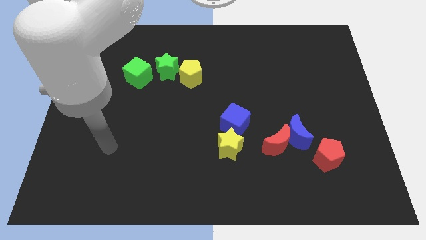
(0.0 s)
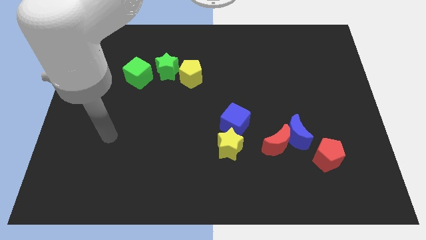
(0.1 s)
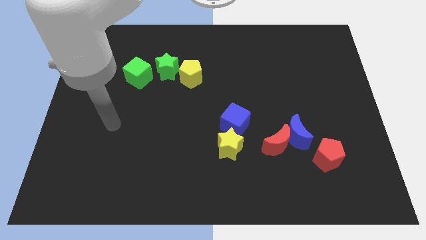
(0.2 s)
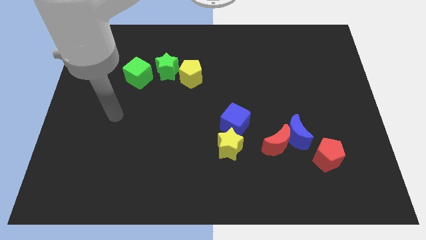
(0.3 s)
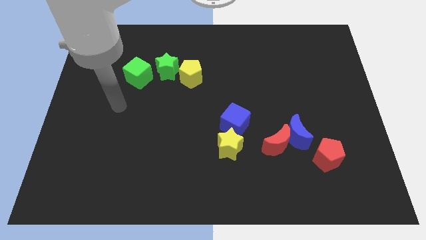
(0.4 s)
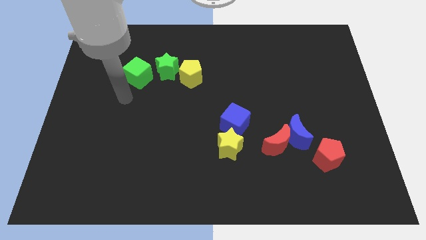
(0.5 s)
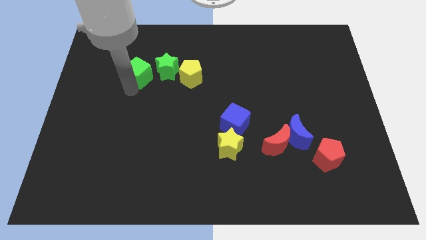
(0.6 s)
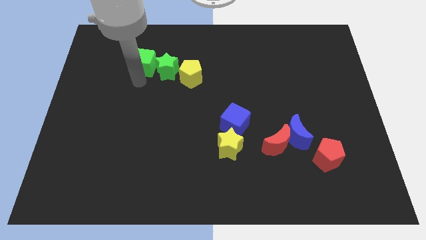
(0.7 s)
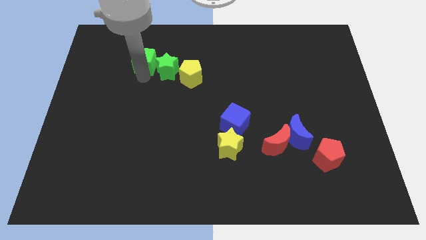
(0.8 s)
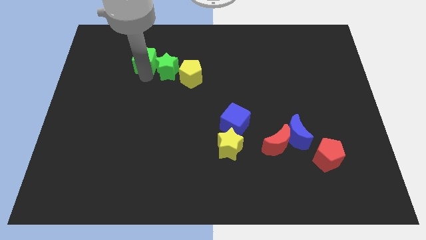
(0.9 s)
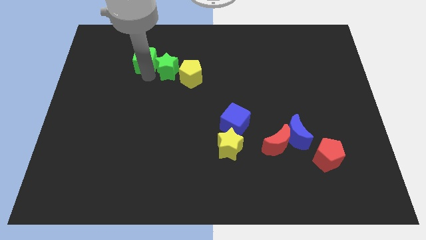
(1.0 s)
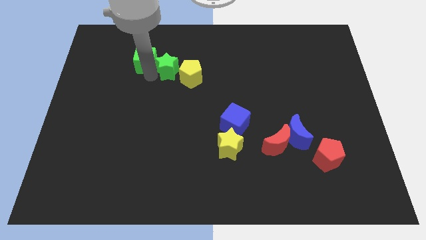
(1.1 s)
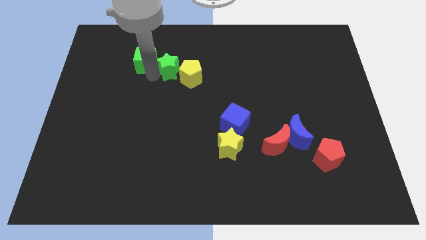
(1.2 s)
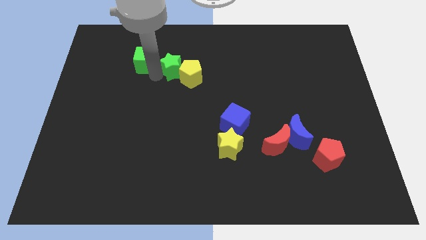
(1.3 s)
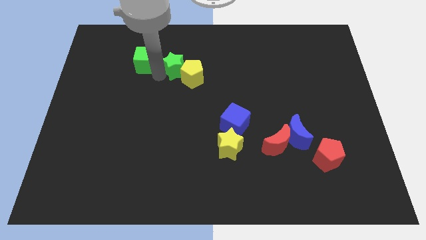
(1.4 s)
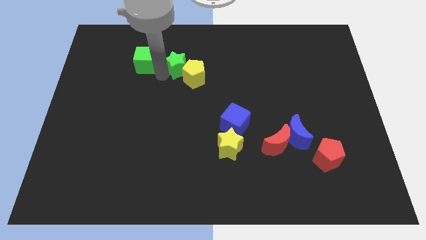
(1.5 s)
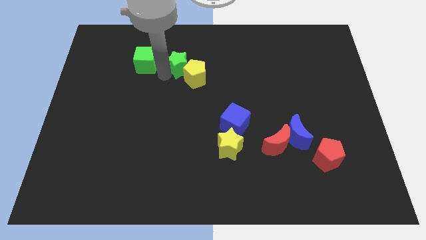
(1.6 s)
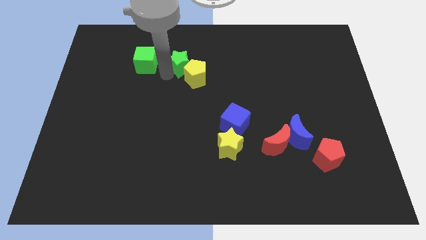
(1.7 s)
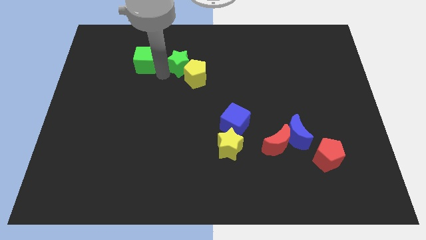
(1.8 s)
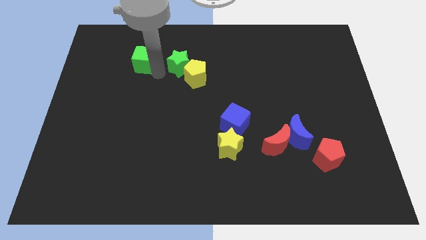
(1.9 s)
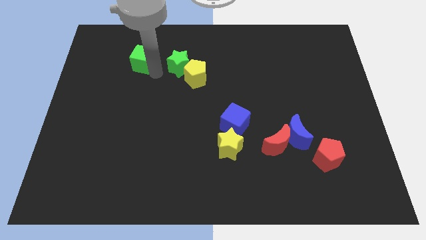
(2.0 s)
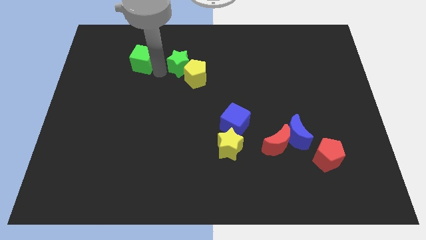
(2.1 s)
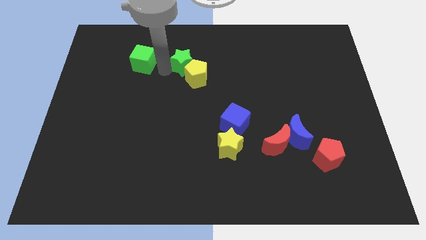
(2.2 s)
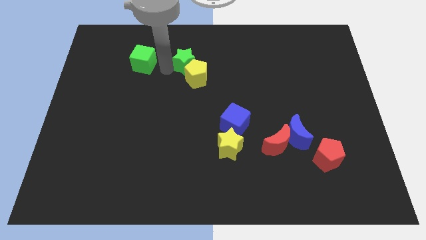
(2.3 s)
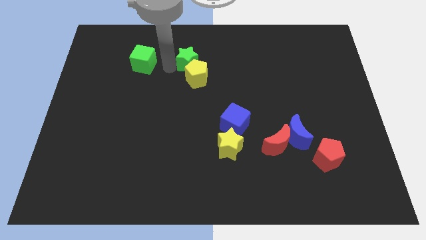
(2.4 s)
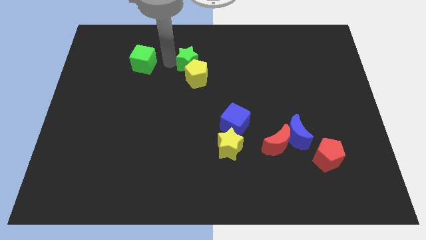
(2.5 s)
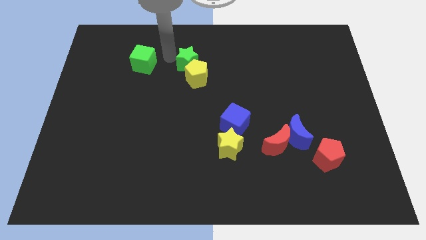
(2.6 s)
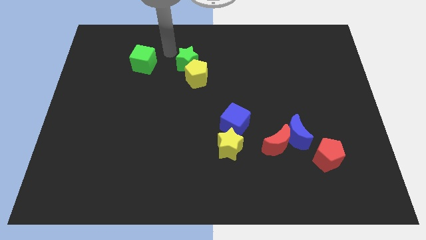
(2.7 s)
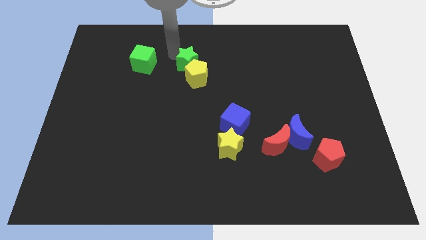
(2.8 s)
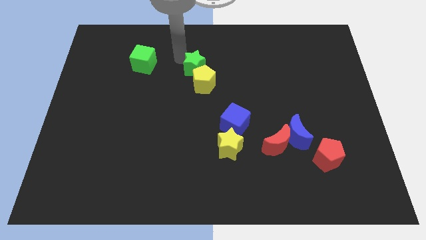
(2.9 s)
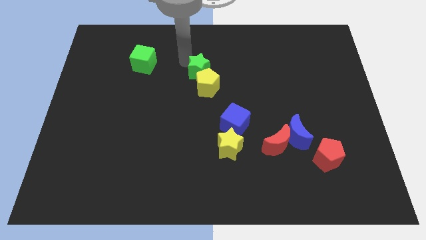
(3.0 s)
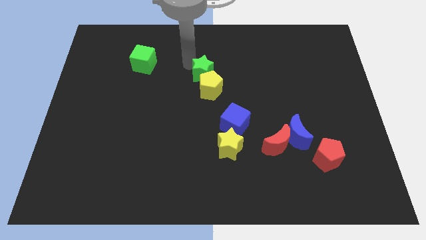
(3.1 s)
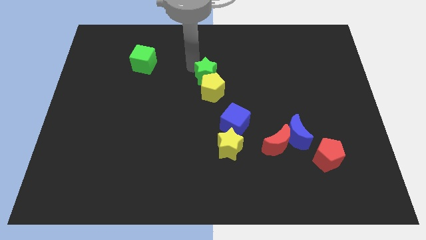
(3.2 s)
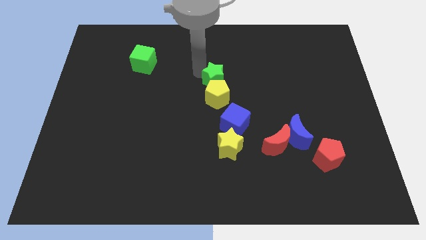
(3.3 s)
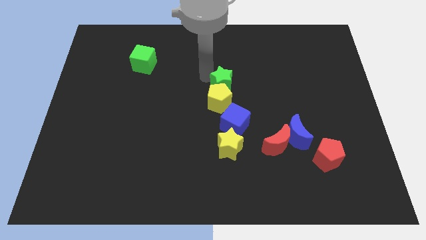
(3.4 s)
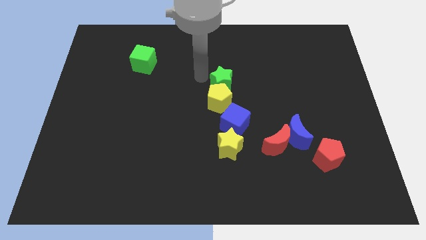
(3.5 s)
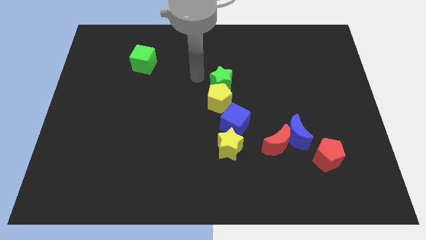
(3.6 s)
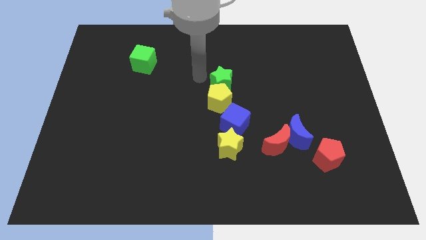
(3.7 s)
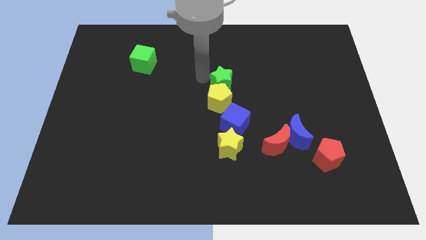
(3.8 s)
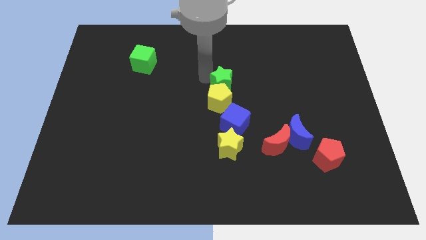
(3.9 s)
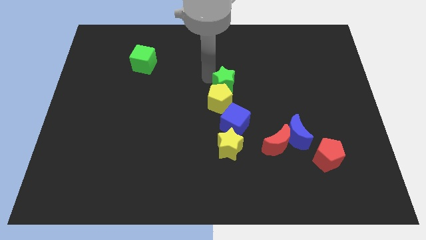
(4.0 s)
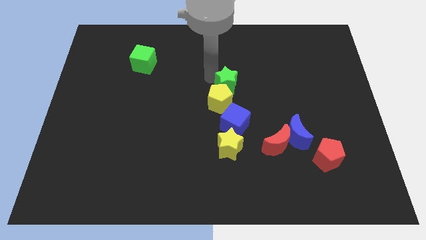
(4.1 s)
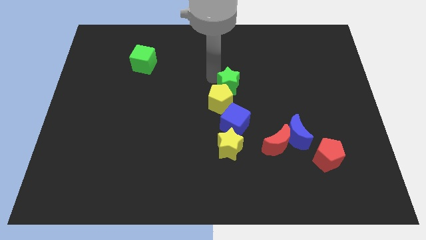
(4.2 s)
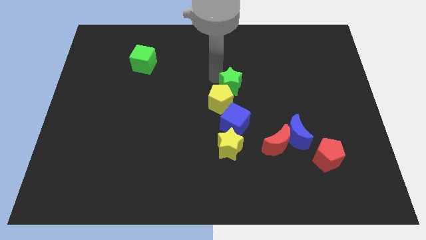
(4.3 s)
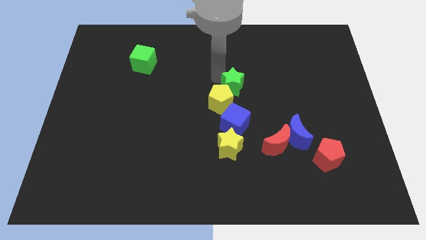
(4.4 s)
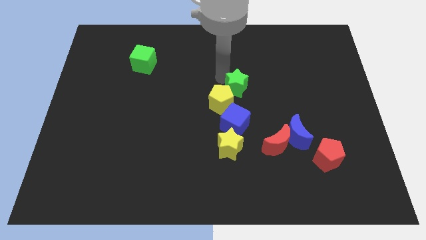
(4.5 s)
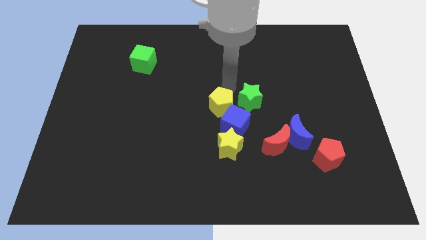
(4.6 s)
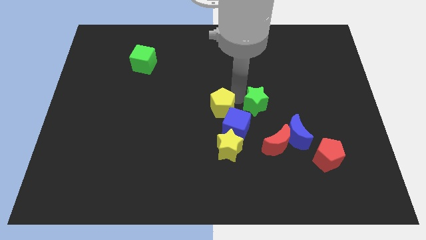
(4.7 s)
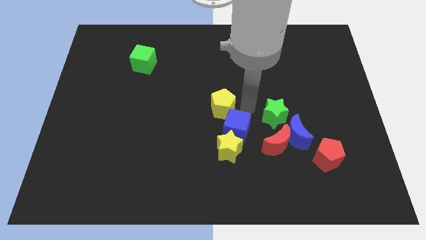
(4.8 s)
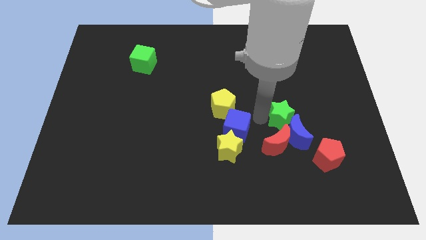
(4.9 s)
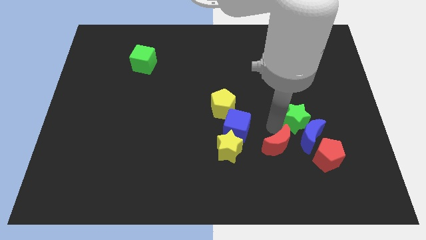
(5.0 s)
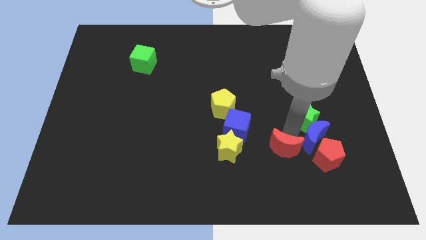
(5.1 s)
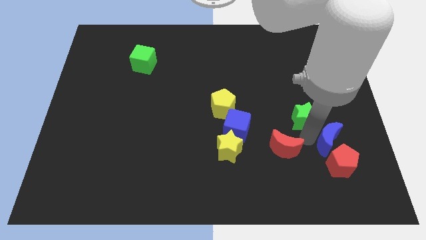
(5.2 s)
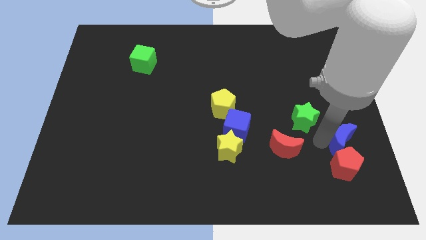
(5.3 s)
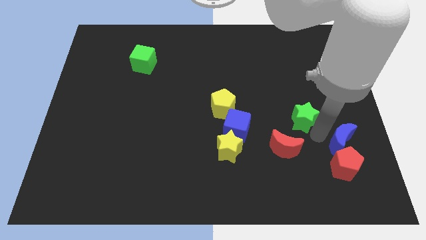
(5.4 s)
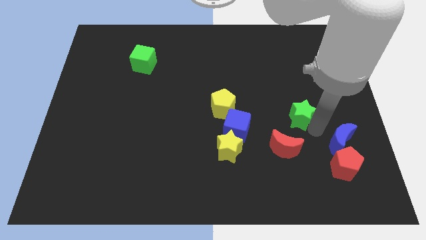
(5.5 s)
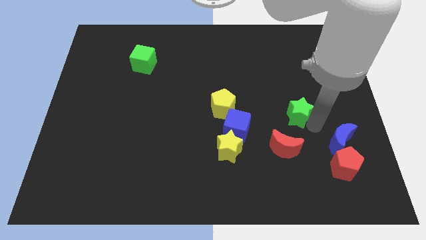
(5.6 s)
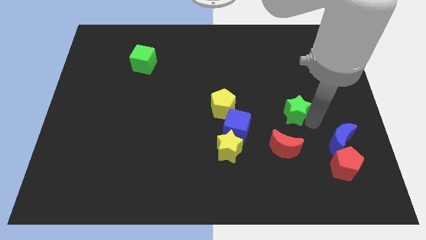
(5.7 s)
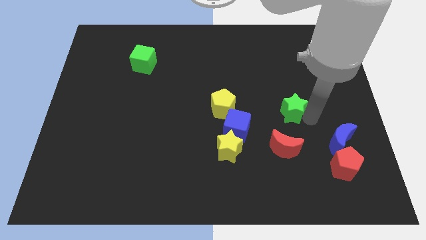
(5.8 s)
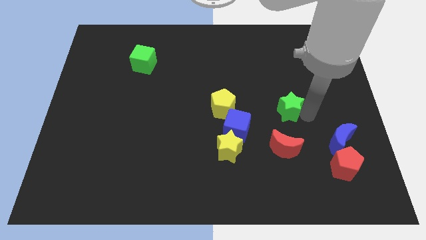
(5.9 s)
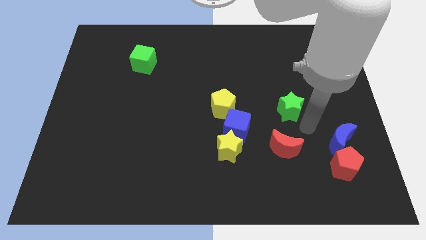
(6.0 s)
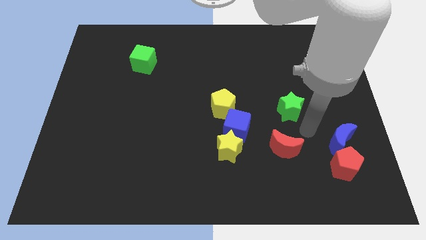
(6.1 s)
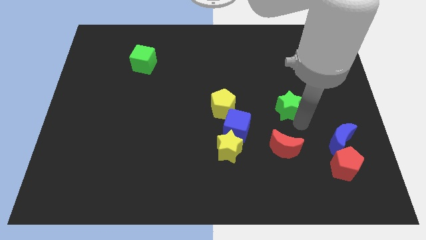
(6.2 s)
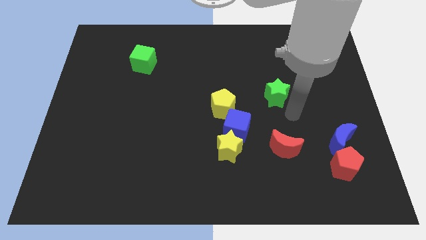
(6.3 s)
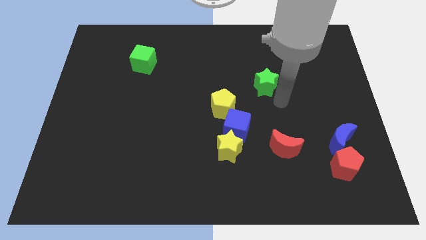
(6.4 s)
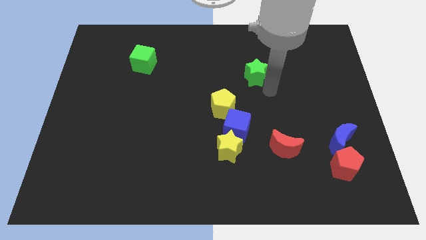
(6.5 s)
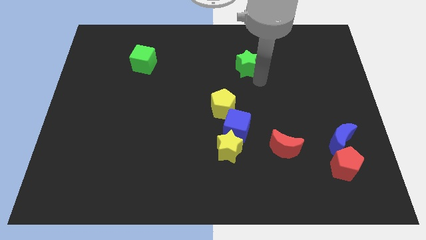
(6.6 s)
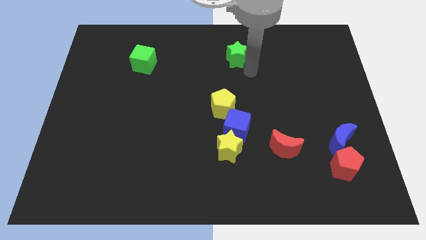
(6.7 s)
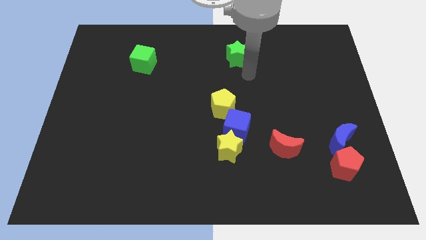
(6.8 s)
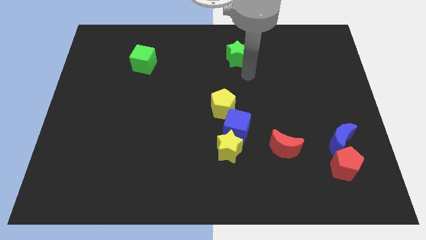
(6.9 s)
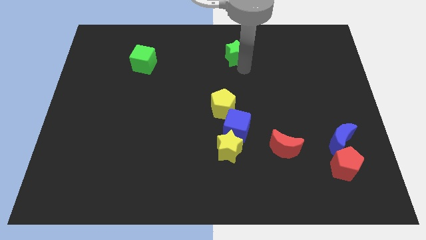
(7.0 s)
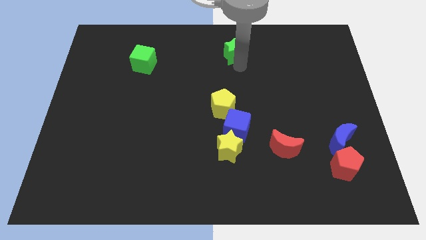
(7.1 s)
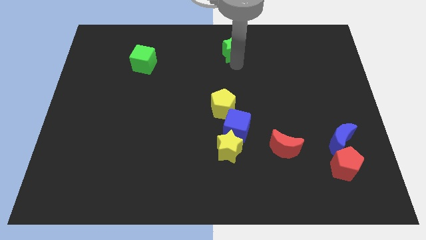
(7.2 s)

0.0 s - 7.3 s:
slide the green star to the towards your base

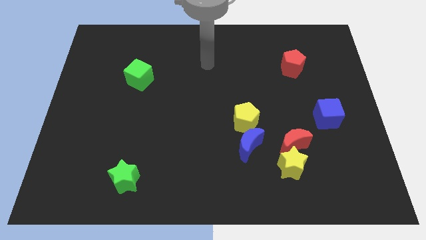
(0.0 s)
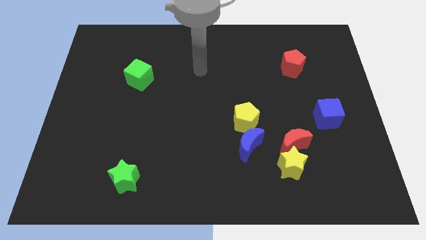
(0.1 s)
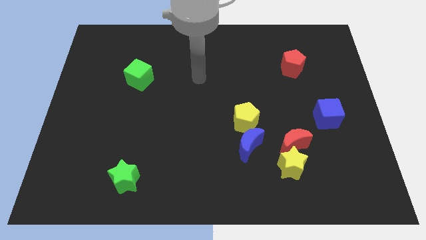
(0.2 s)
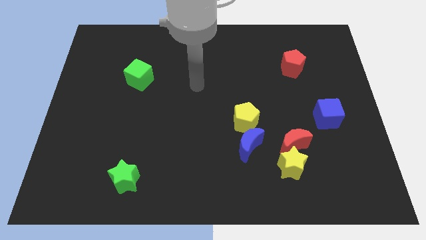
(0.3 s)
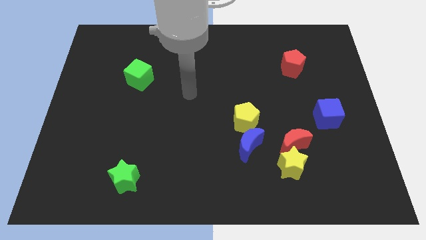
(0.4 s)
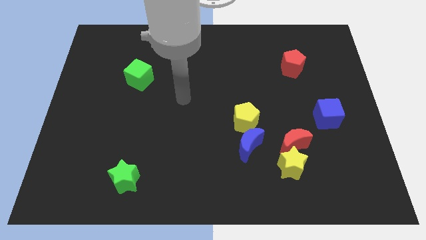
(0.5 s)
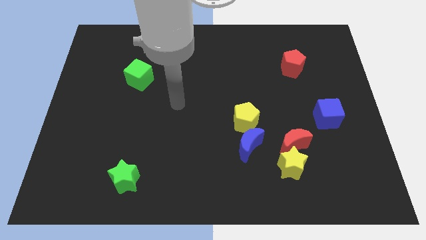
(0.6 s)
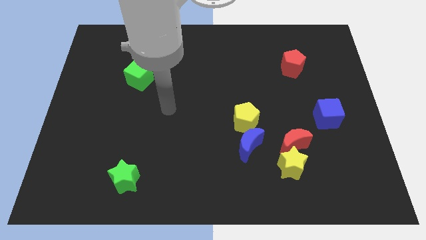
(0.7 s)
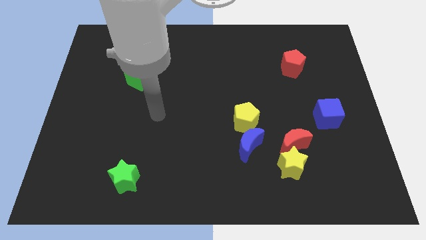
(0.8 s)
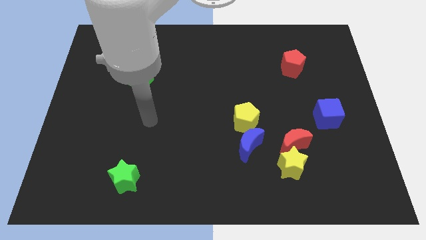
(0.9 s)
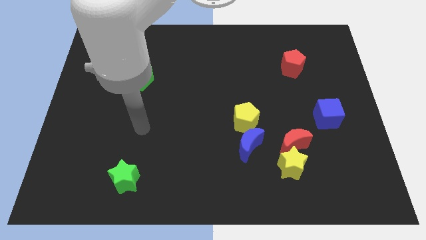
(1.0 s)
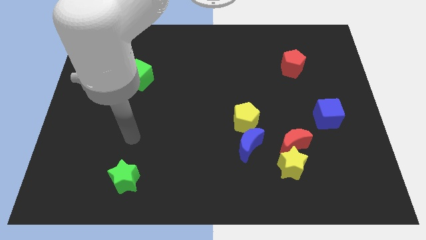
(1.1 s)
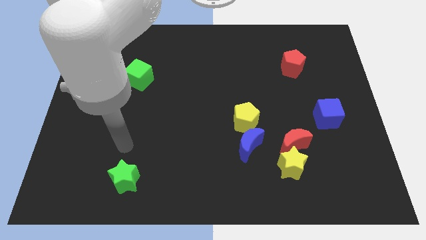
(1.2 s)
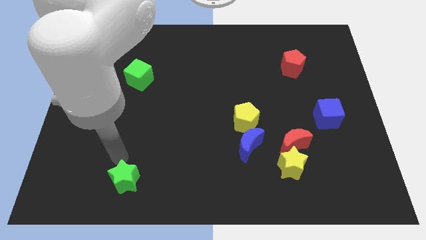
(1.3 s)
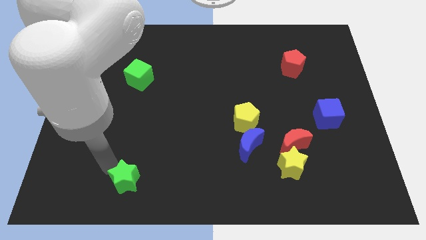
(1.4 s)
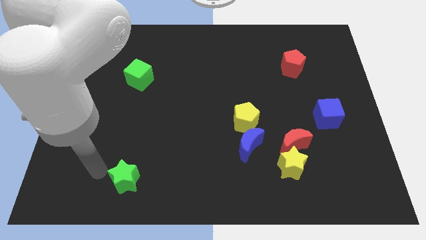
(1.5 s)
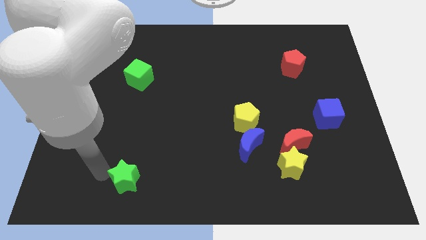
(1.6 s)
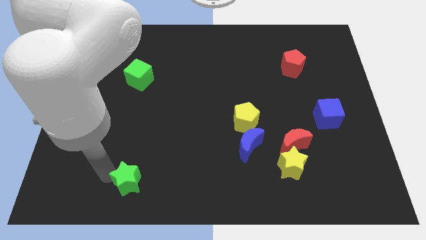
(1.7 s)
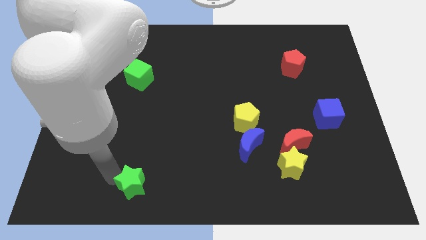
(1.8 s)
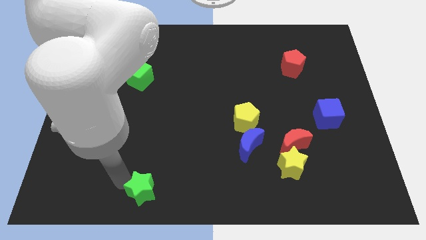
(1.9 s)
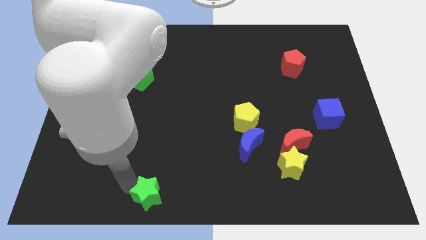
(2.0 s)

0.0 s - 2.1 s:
push the green star to the bottom
